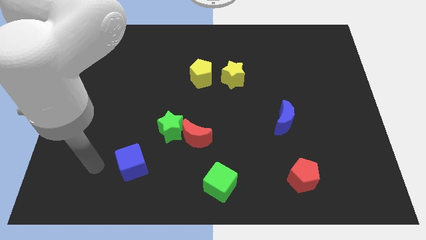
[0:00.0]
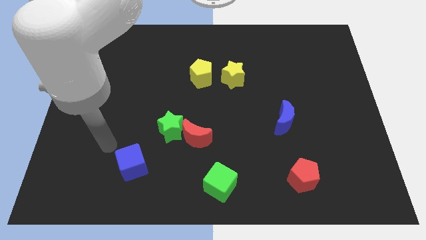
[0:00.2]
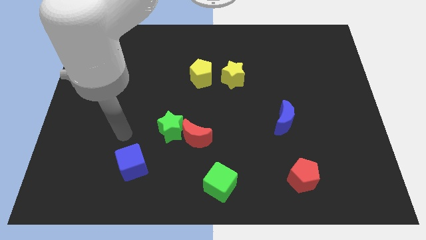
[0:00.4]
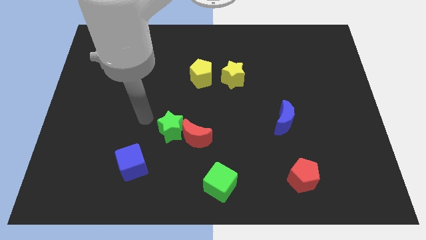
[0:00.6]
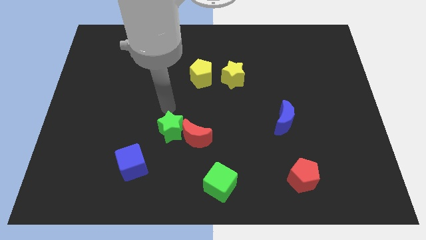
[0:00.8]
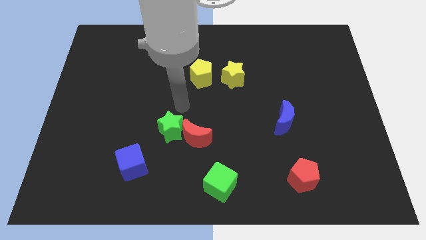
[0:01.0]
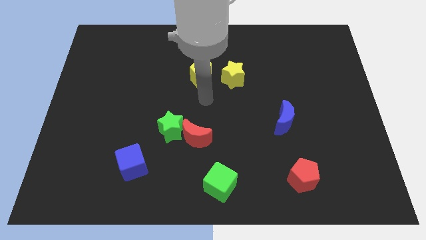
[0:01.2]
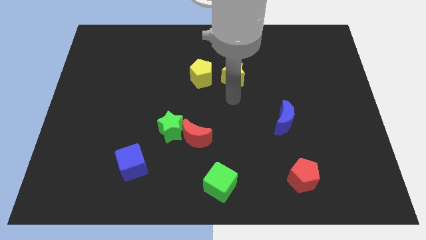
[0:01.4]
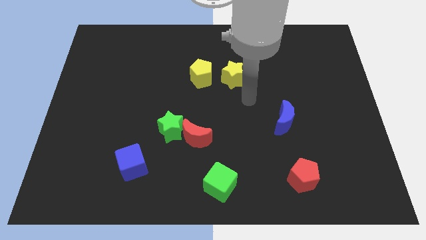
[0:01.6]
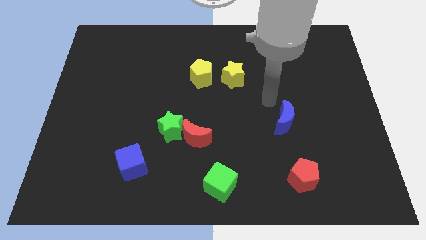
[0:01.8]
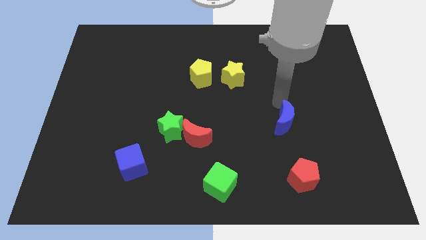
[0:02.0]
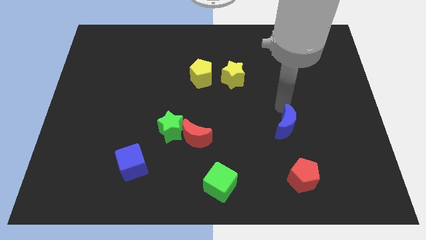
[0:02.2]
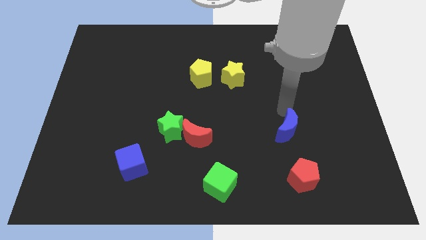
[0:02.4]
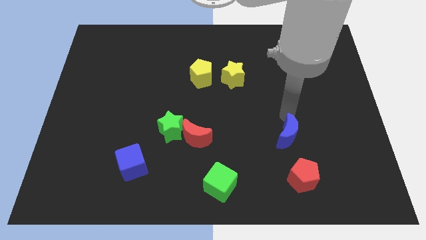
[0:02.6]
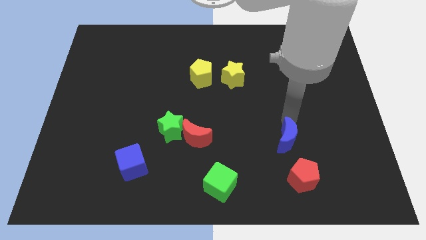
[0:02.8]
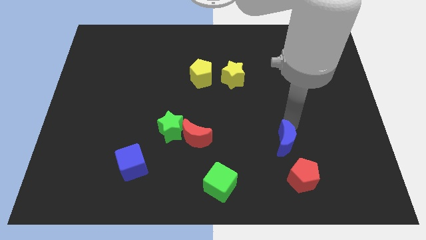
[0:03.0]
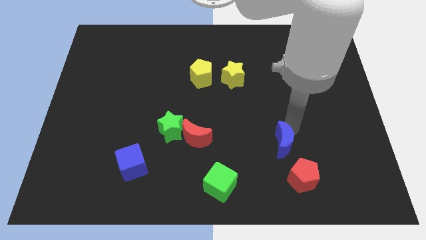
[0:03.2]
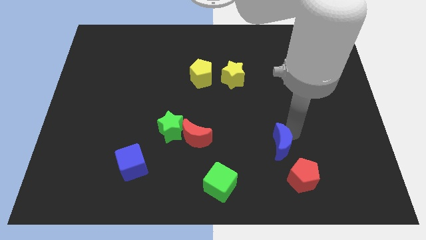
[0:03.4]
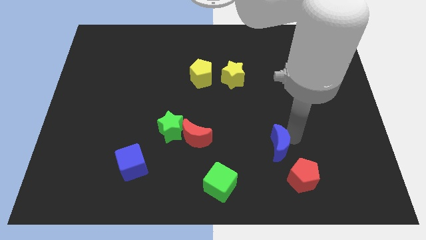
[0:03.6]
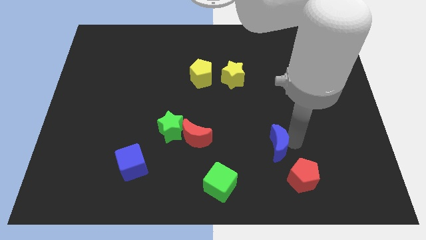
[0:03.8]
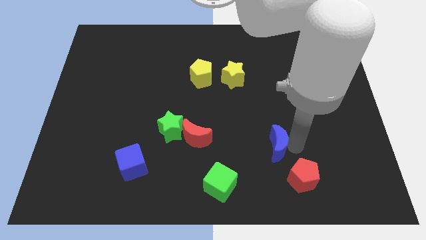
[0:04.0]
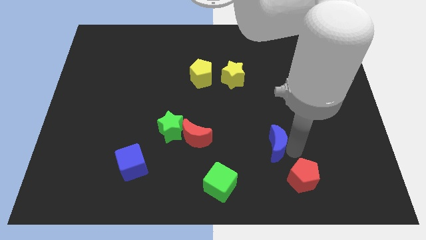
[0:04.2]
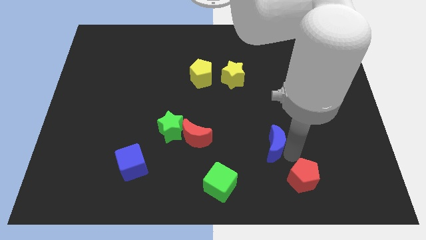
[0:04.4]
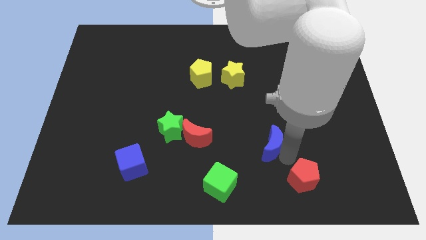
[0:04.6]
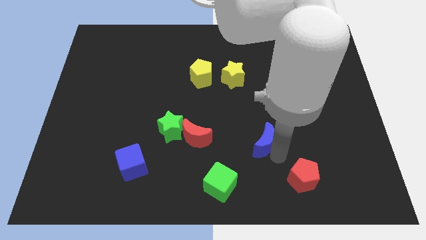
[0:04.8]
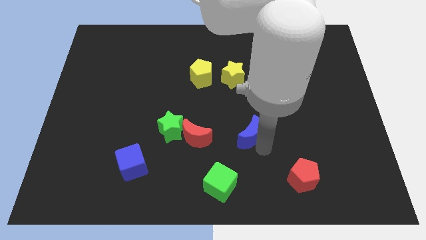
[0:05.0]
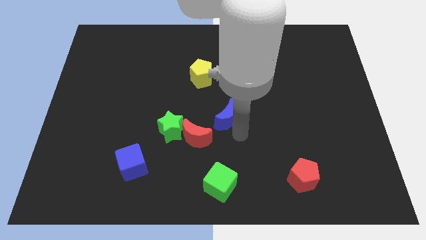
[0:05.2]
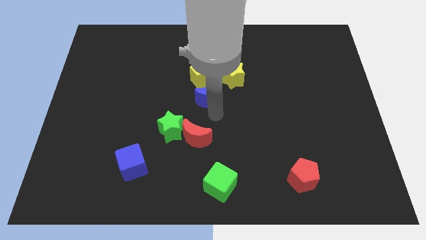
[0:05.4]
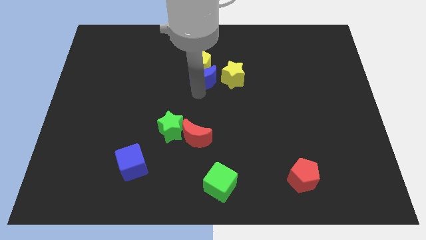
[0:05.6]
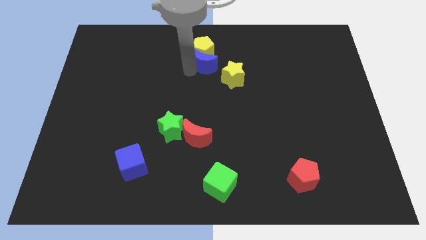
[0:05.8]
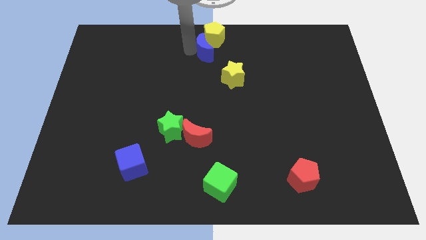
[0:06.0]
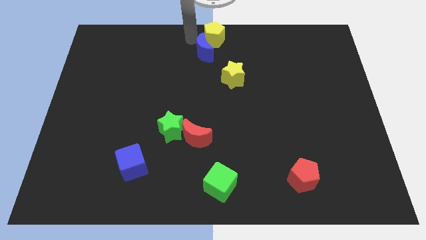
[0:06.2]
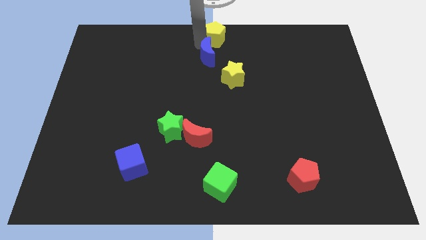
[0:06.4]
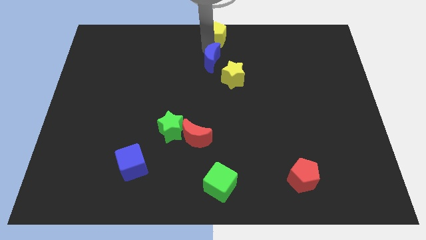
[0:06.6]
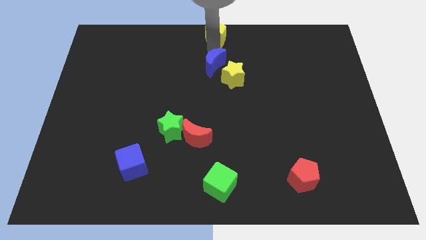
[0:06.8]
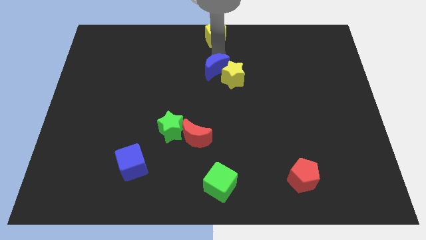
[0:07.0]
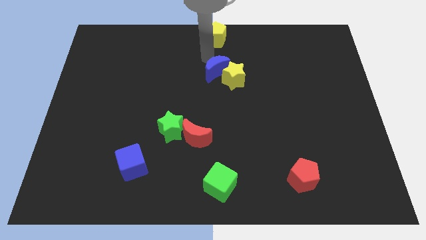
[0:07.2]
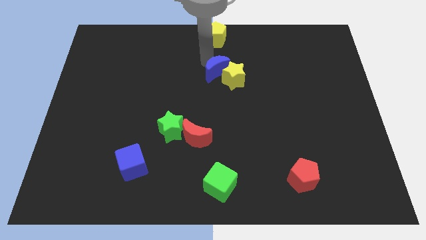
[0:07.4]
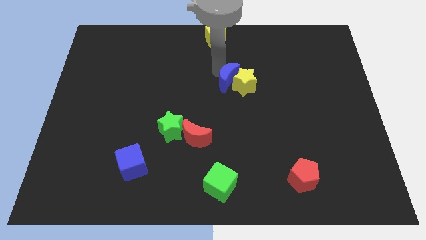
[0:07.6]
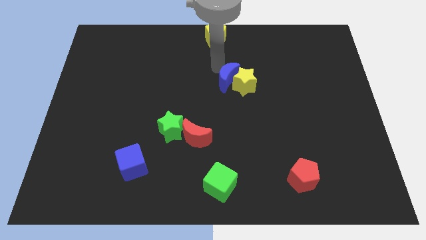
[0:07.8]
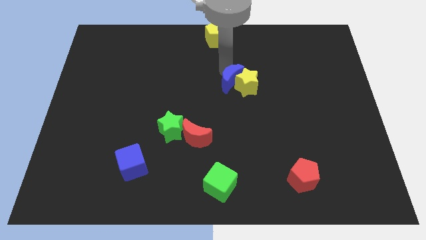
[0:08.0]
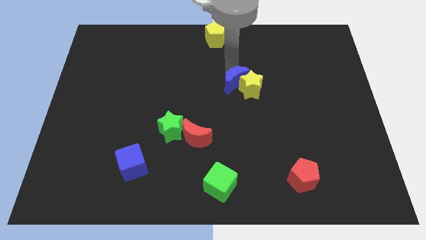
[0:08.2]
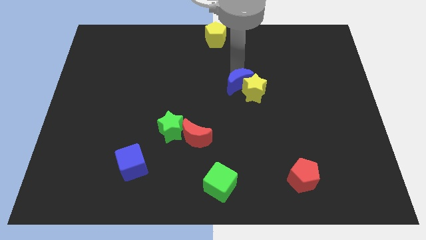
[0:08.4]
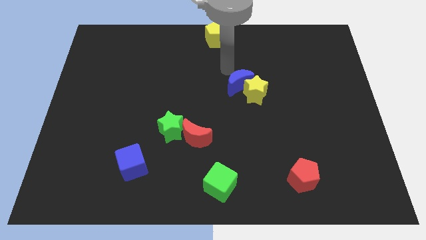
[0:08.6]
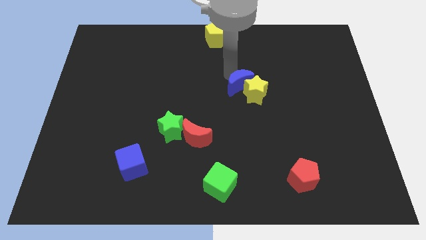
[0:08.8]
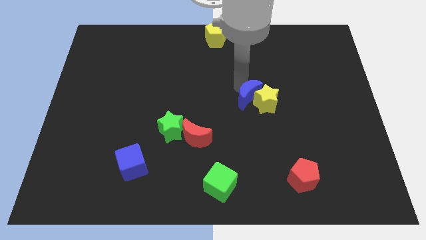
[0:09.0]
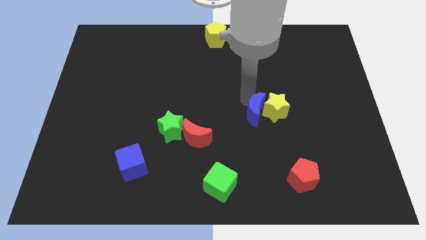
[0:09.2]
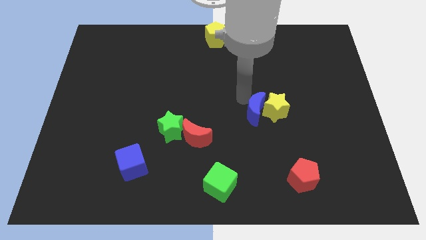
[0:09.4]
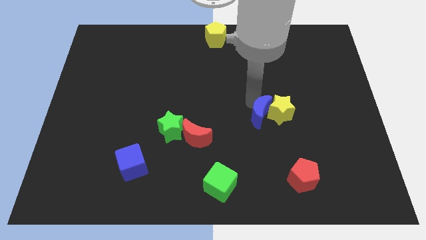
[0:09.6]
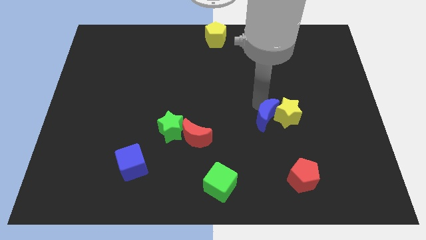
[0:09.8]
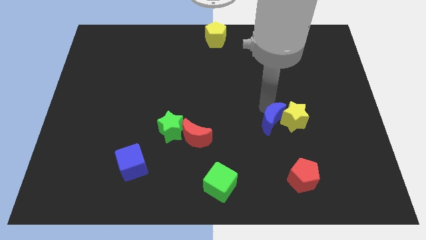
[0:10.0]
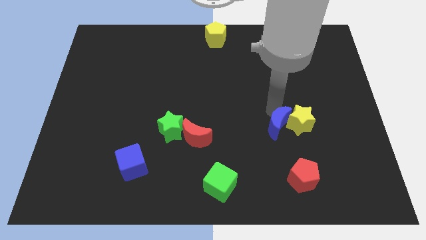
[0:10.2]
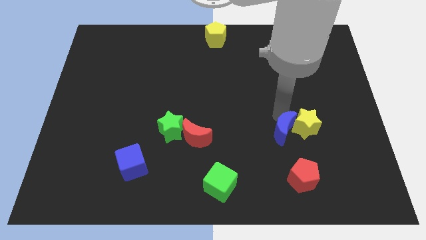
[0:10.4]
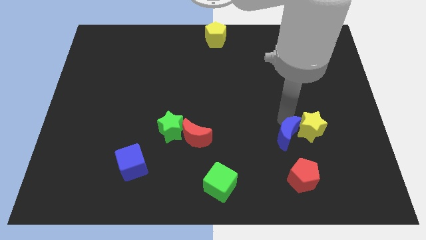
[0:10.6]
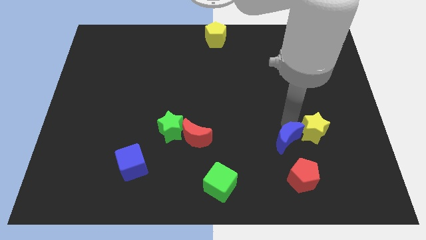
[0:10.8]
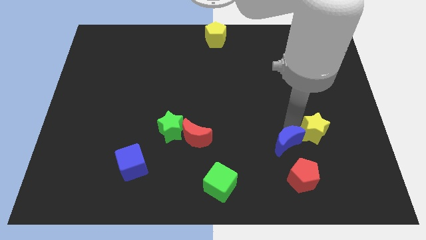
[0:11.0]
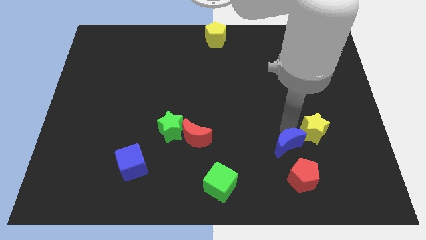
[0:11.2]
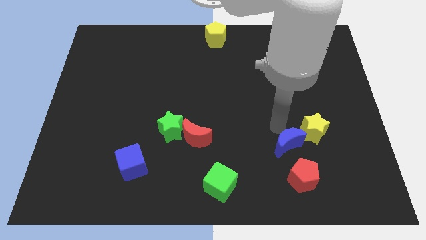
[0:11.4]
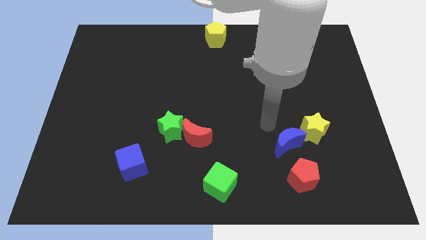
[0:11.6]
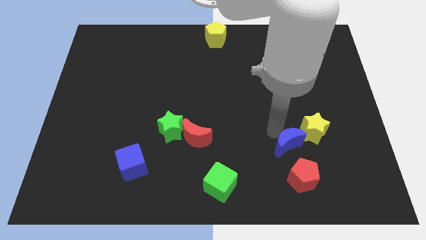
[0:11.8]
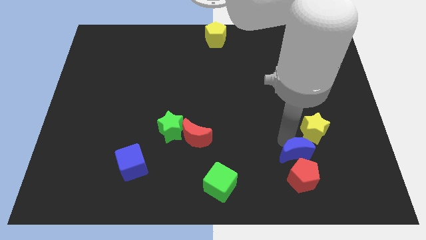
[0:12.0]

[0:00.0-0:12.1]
put the blue moon close to the red pentagon

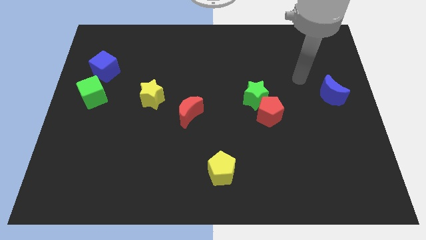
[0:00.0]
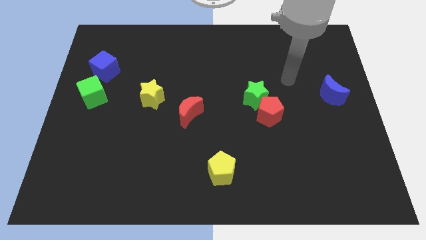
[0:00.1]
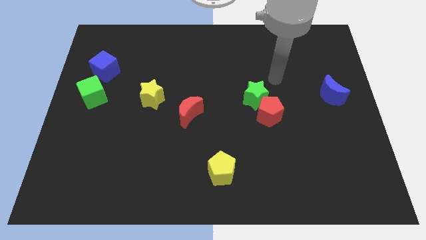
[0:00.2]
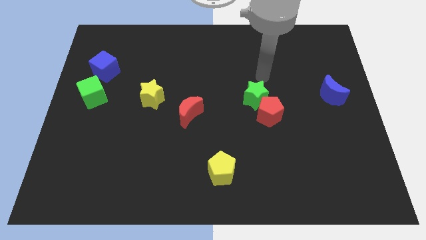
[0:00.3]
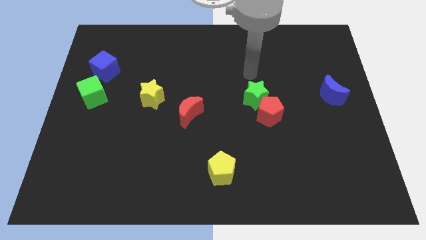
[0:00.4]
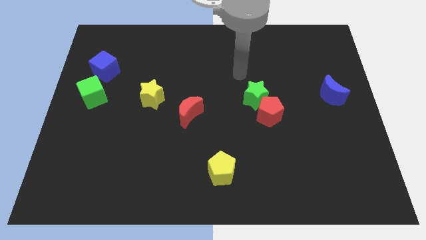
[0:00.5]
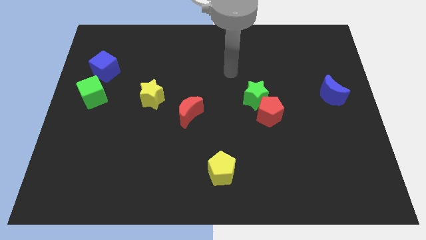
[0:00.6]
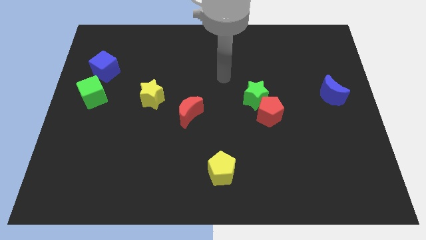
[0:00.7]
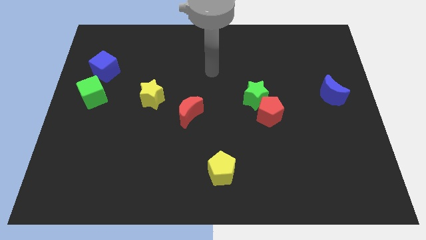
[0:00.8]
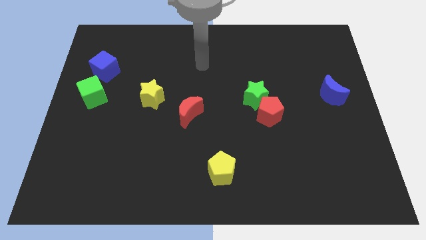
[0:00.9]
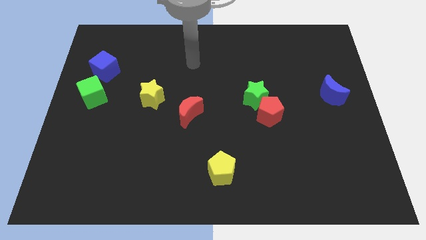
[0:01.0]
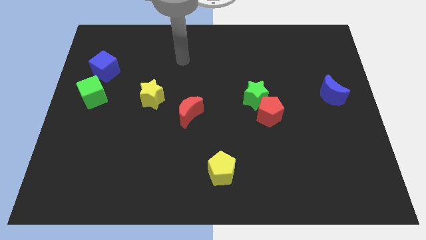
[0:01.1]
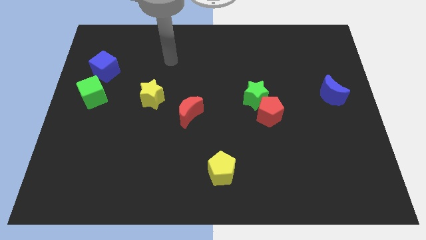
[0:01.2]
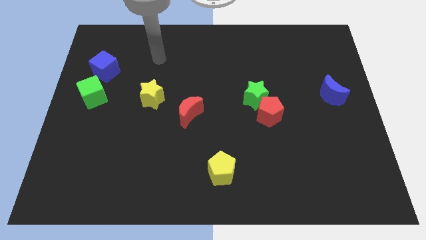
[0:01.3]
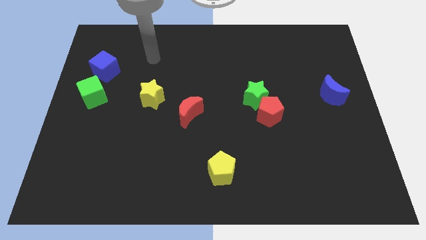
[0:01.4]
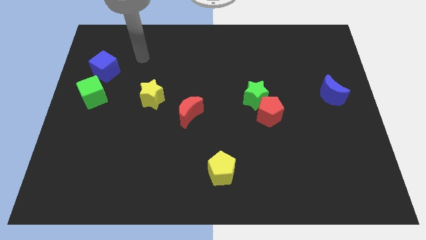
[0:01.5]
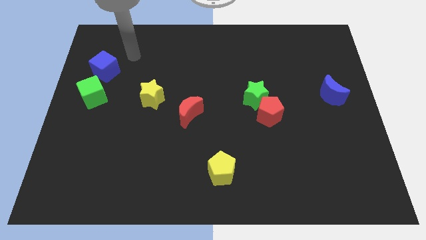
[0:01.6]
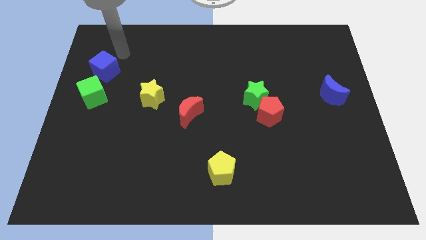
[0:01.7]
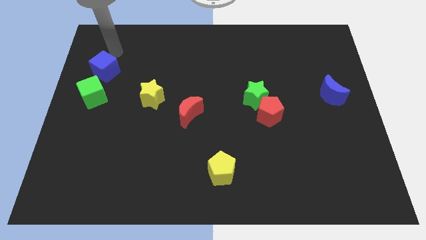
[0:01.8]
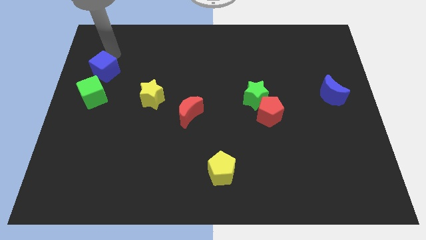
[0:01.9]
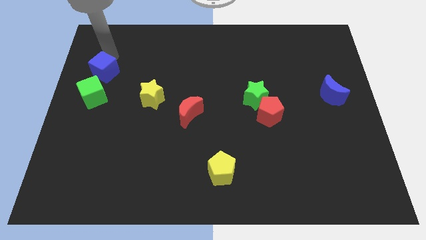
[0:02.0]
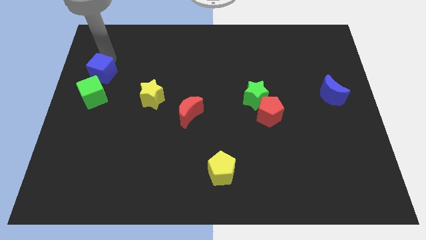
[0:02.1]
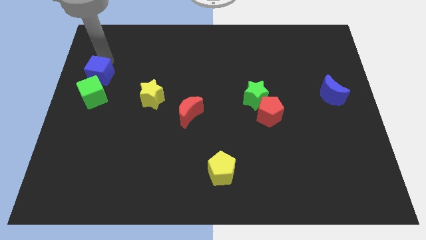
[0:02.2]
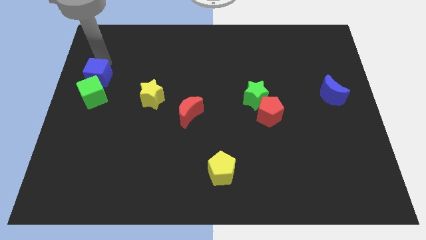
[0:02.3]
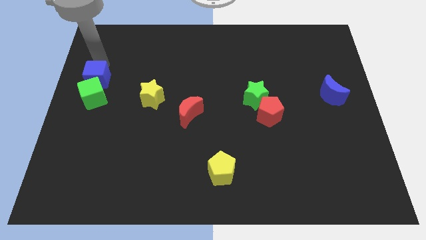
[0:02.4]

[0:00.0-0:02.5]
push the blue cube towards the green cube
